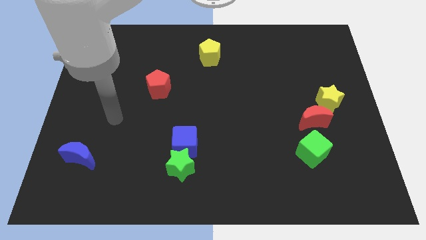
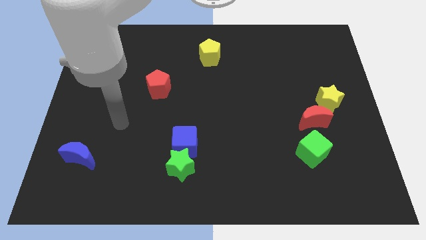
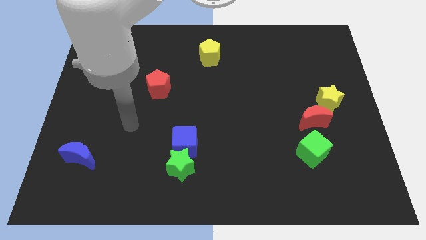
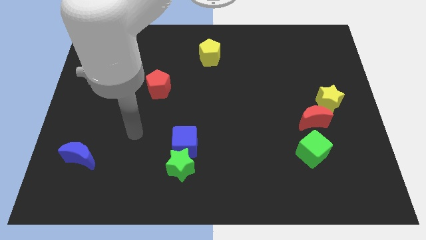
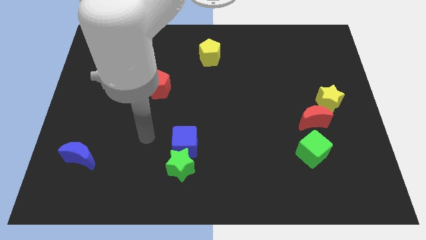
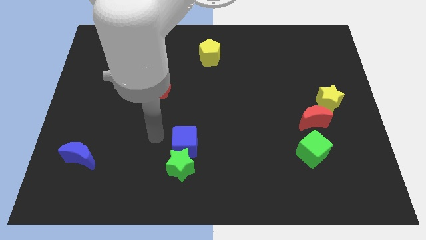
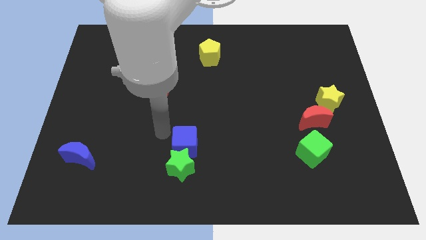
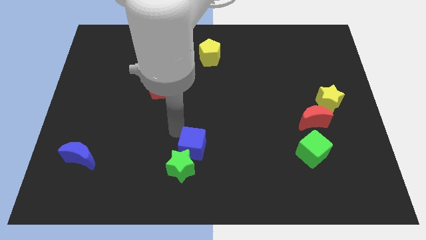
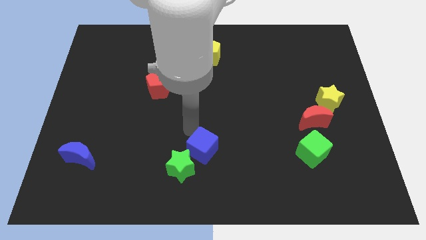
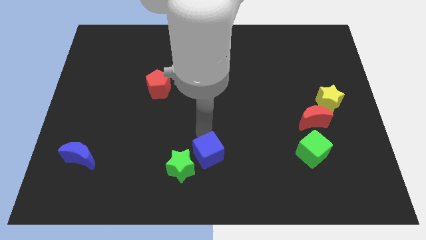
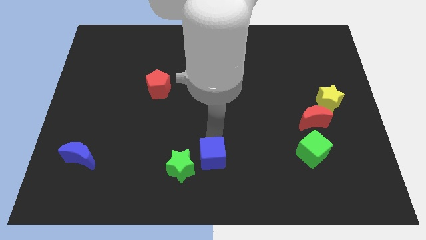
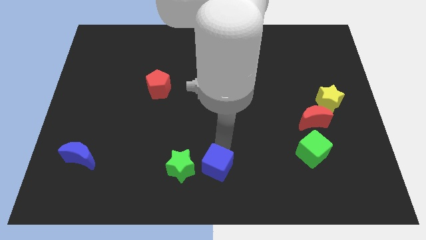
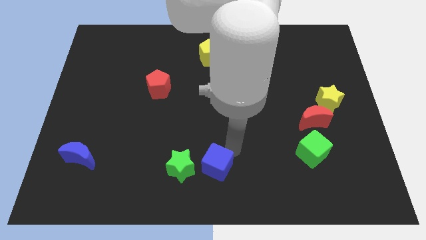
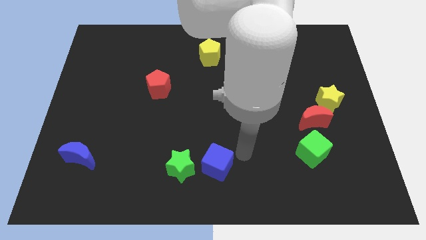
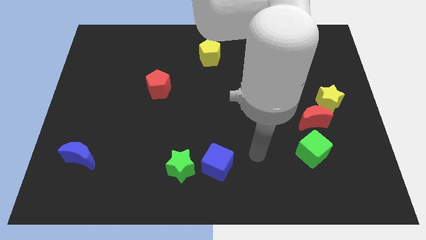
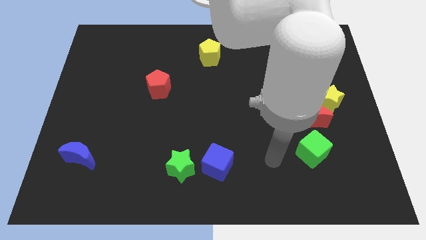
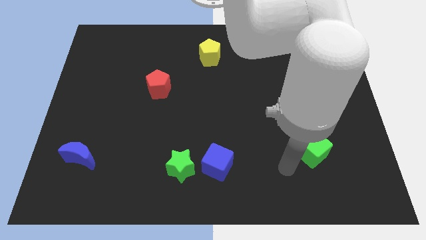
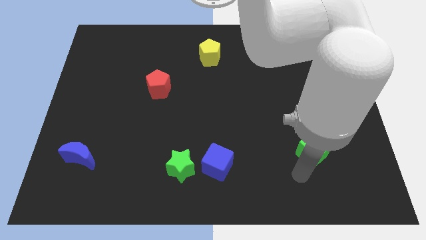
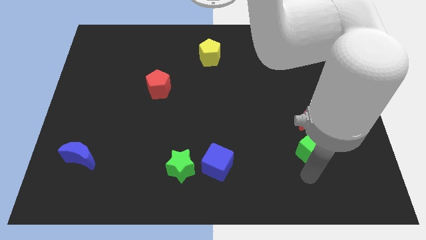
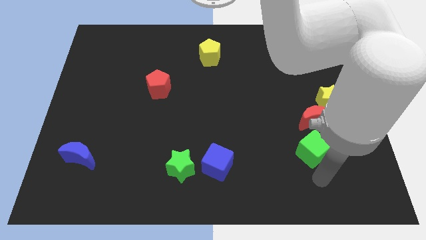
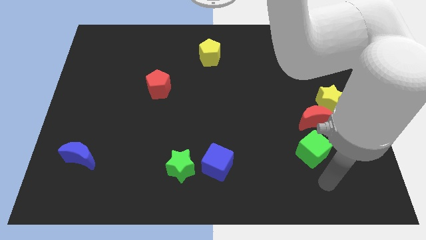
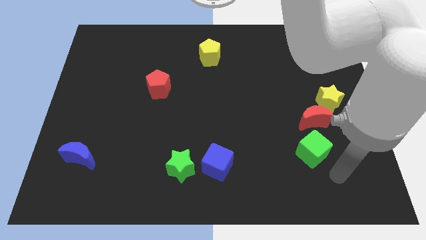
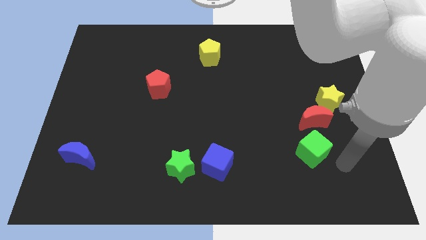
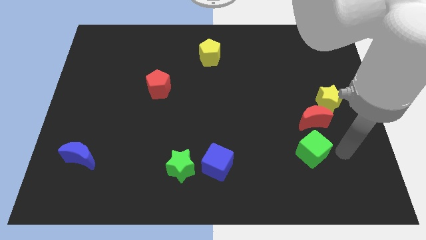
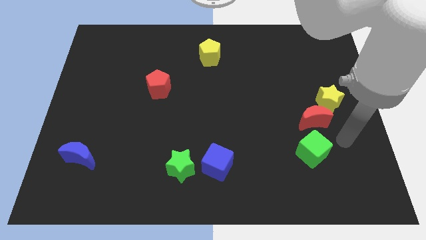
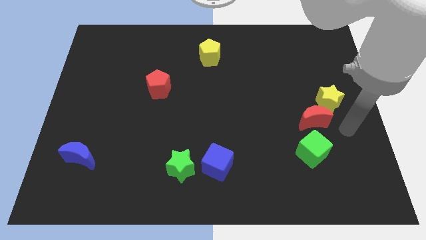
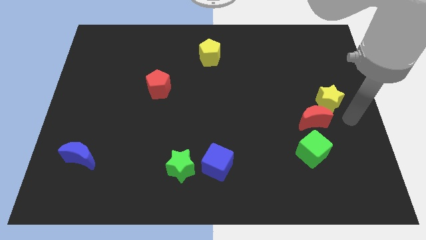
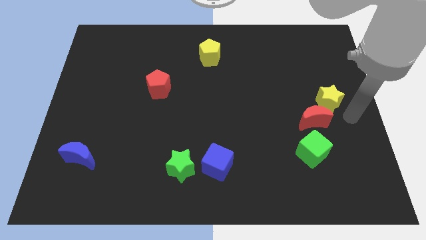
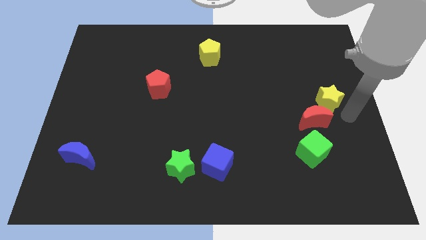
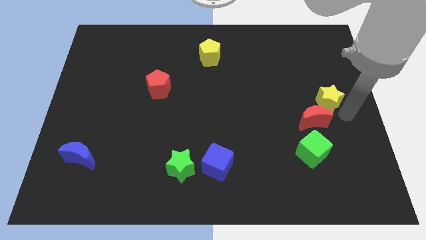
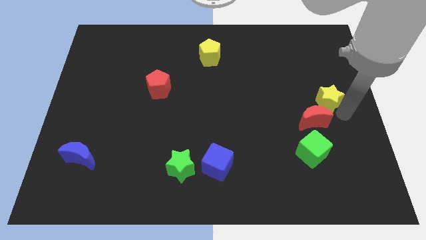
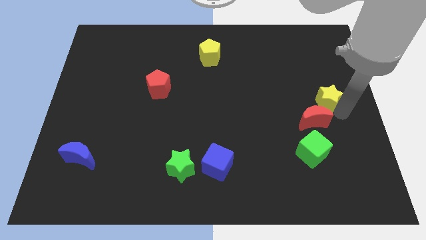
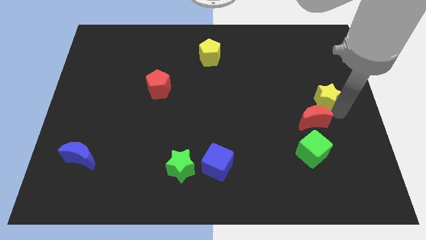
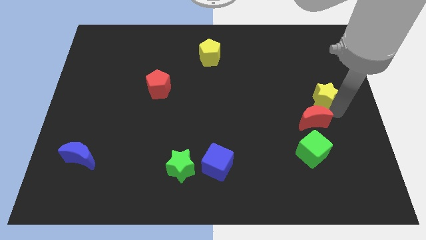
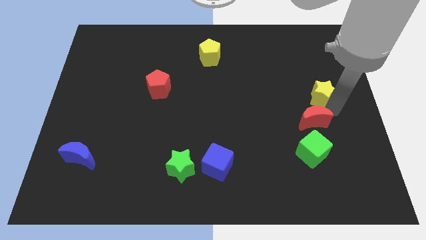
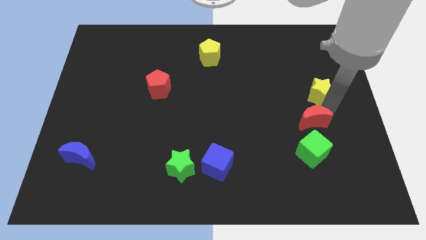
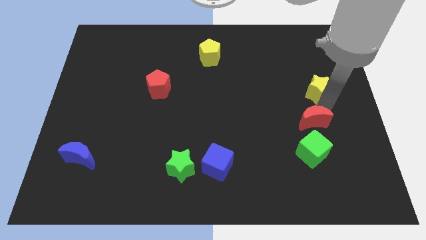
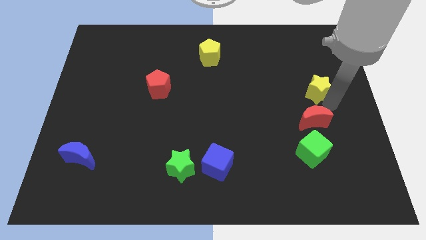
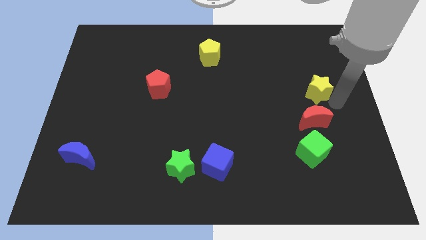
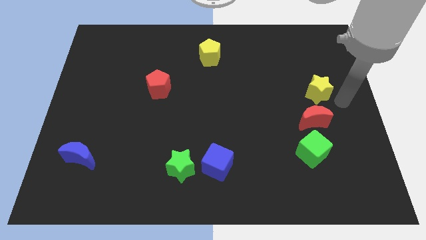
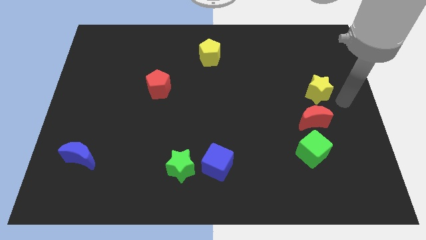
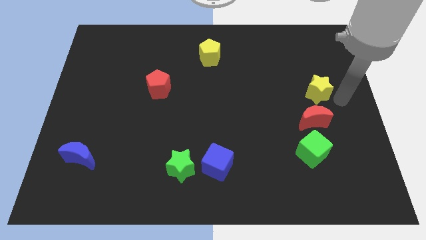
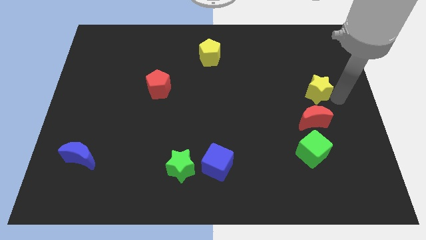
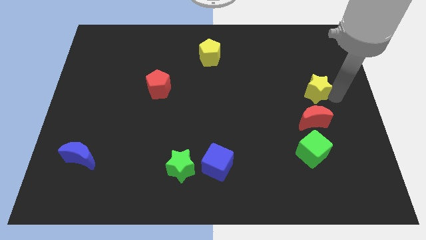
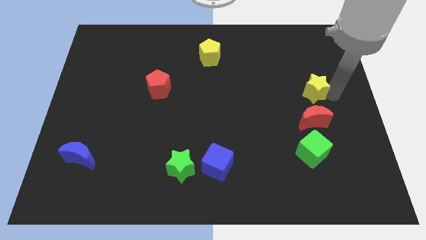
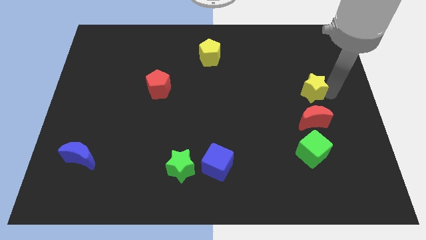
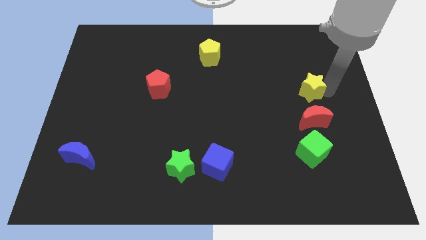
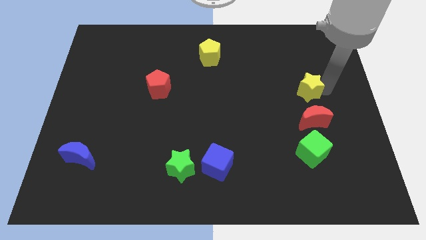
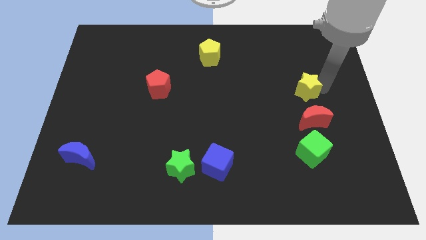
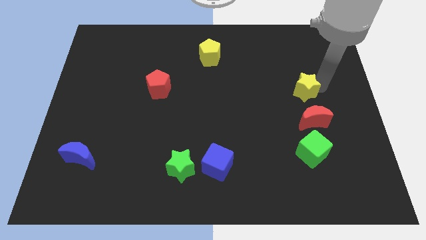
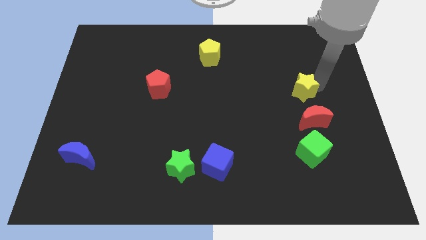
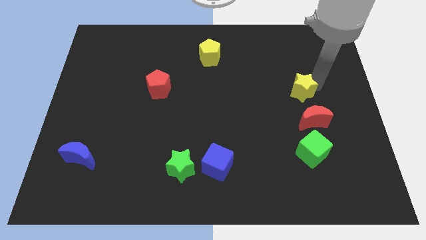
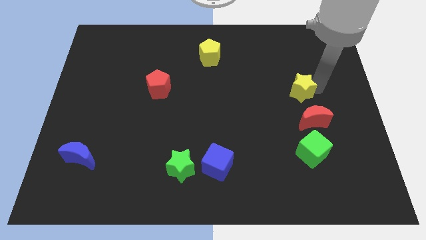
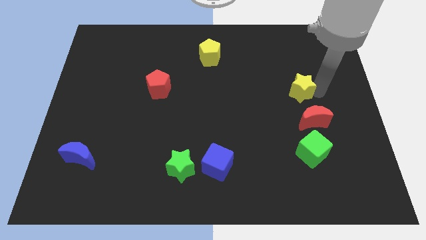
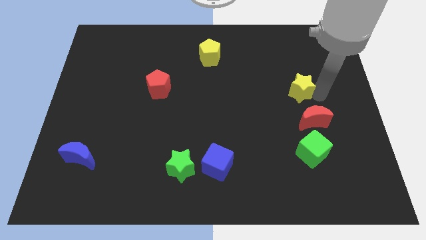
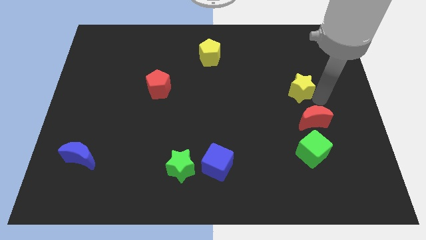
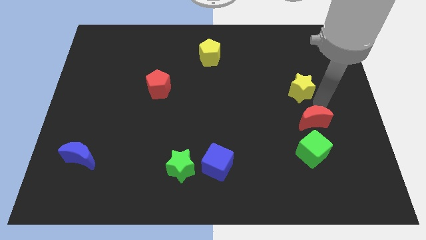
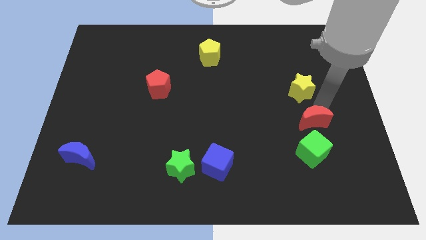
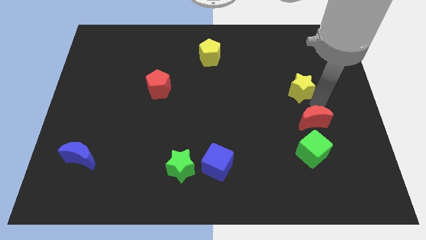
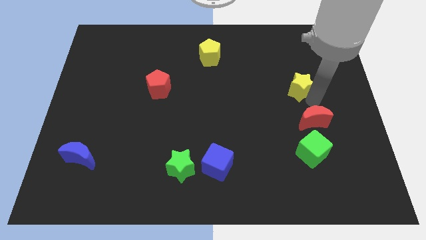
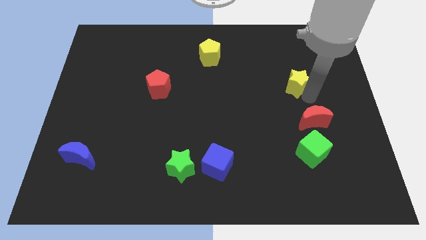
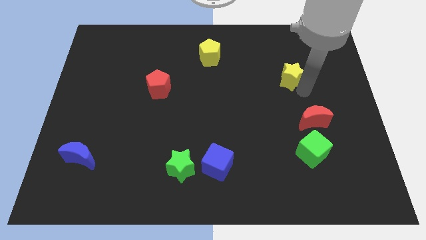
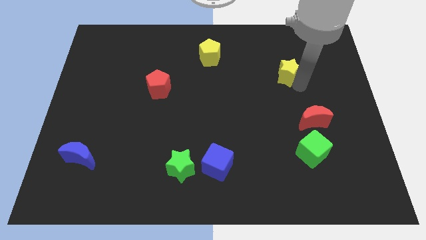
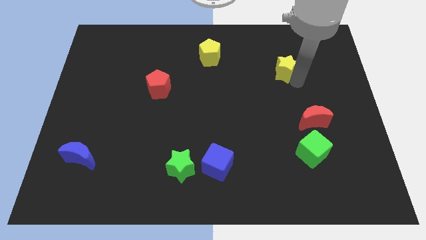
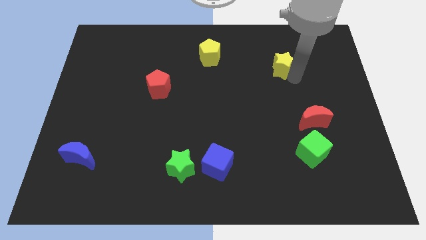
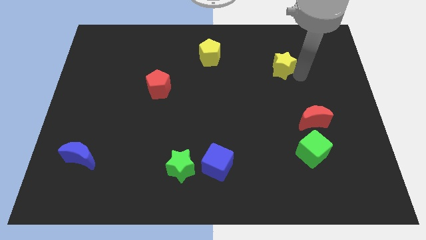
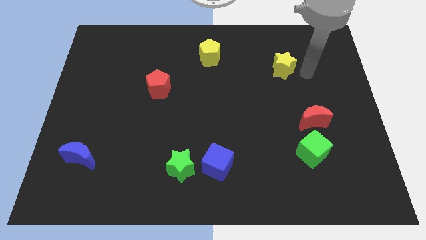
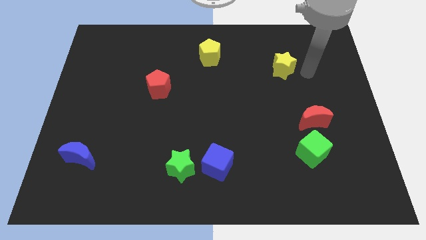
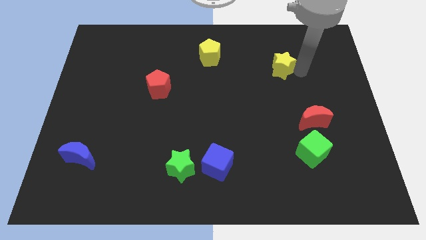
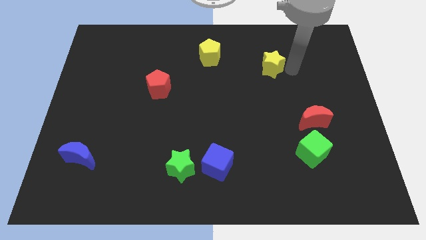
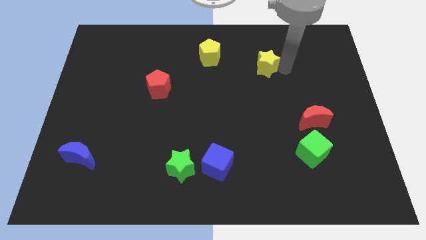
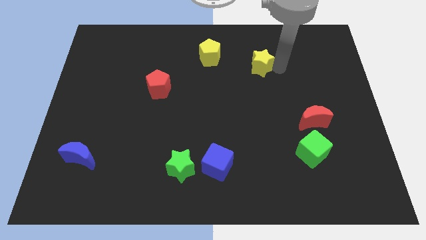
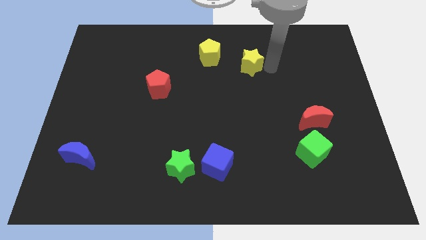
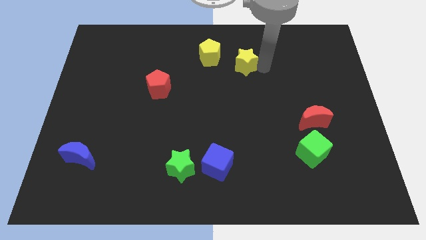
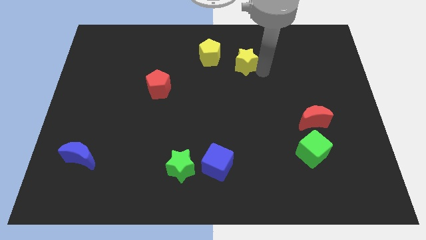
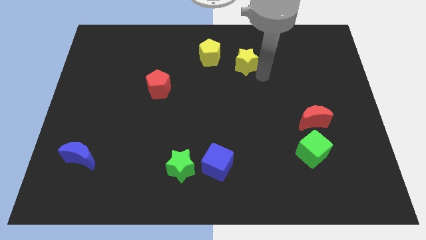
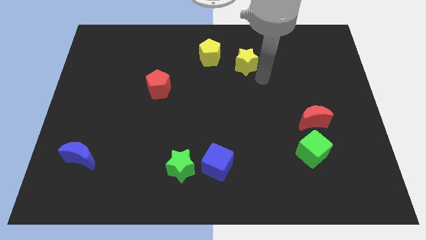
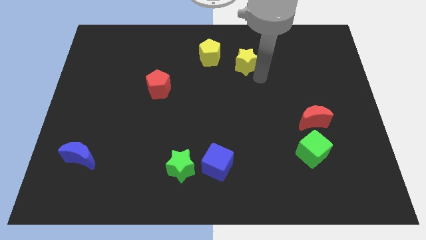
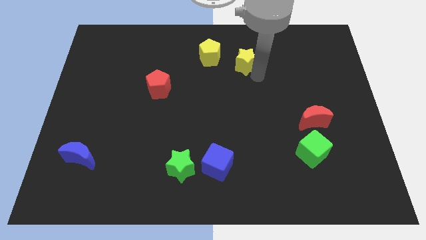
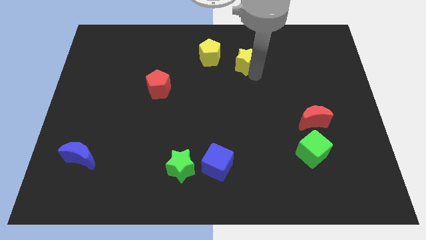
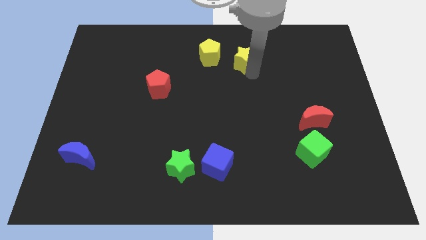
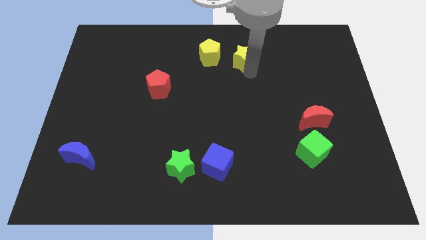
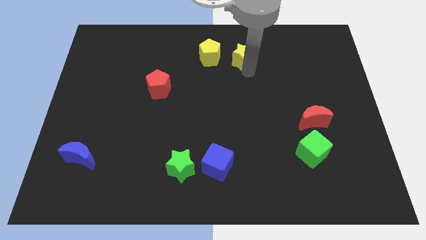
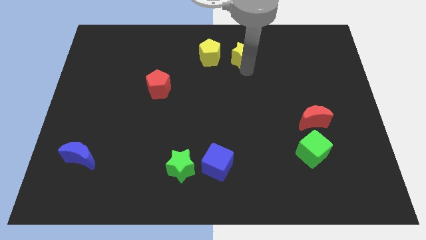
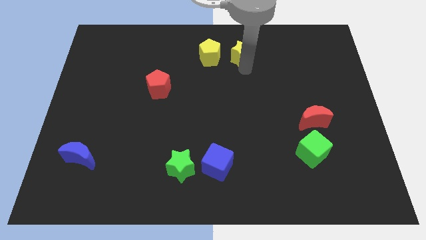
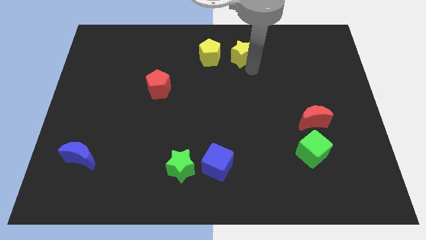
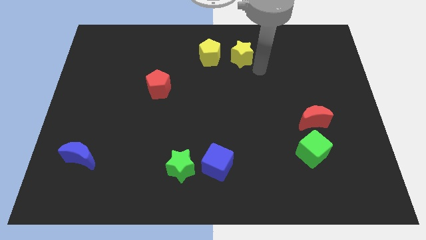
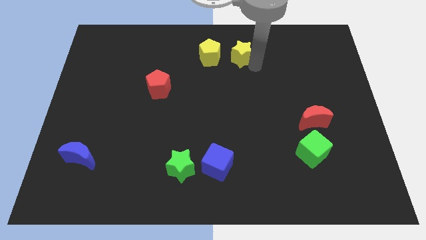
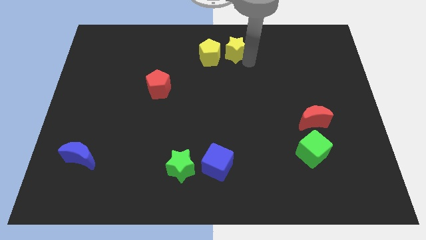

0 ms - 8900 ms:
slide the yellow star to the top side
